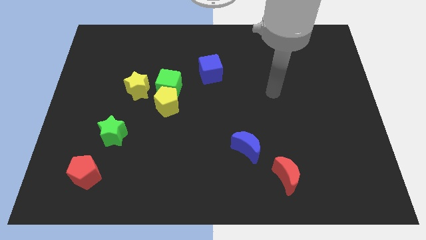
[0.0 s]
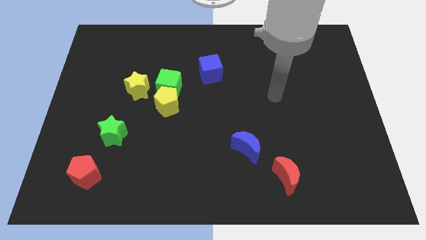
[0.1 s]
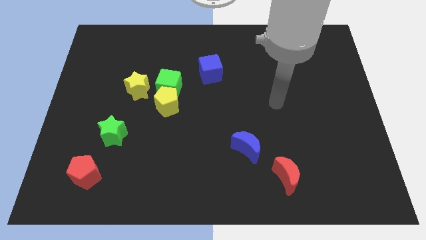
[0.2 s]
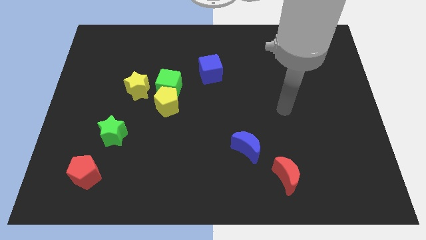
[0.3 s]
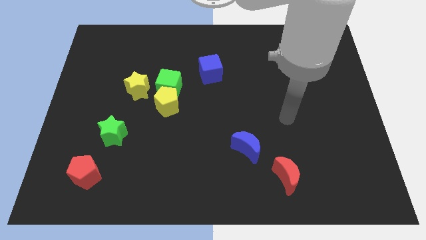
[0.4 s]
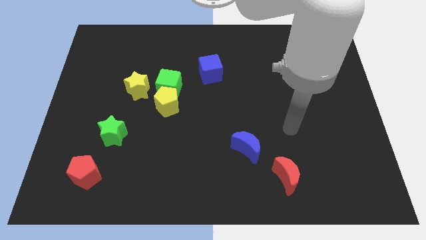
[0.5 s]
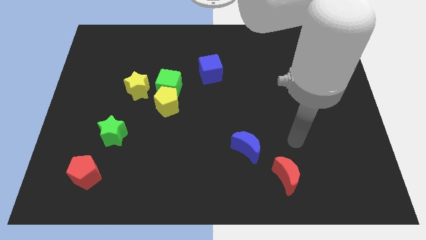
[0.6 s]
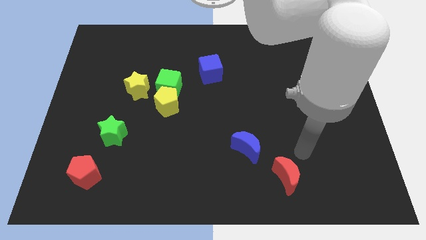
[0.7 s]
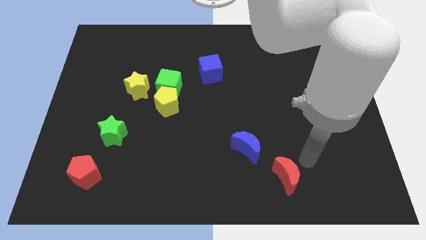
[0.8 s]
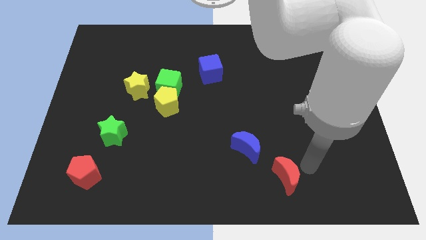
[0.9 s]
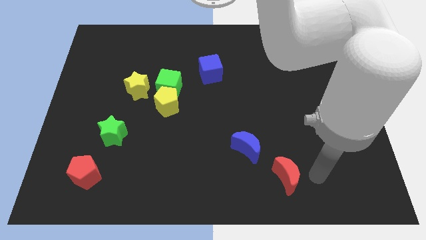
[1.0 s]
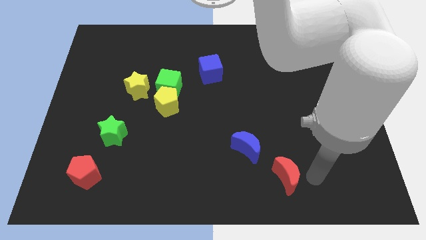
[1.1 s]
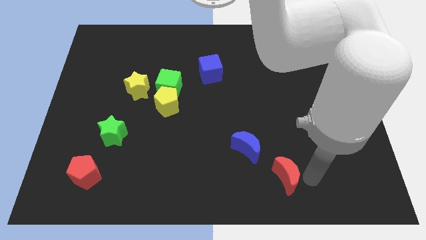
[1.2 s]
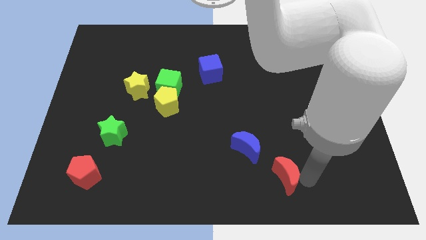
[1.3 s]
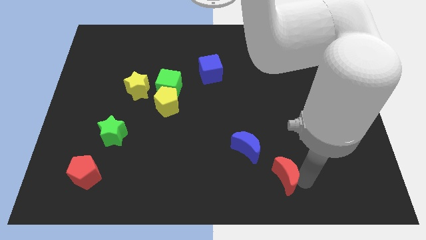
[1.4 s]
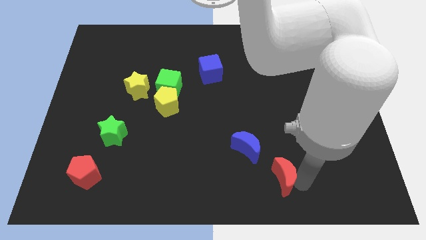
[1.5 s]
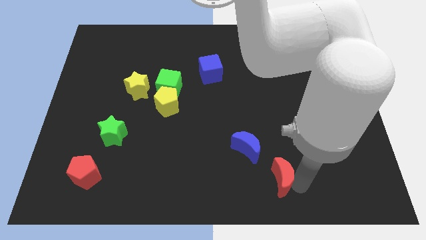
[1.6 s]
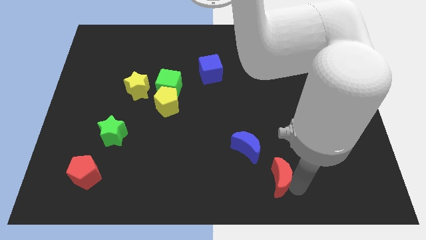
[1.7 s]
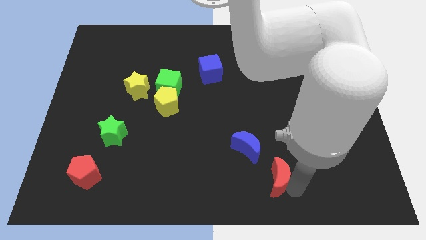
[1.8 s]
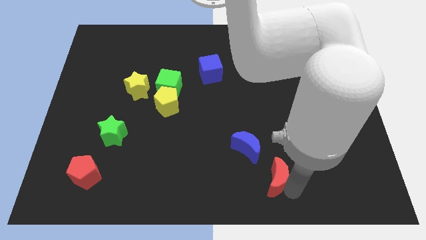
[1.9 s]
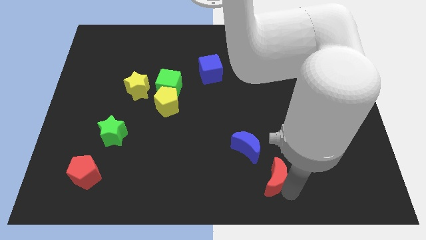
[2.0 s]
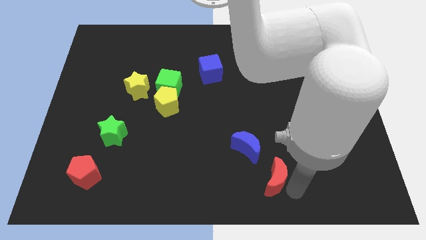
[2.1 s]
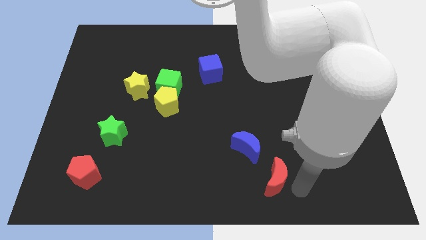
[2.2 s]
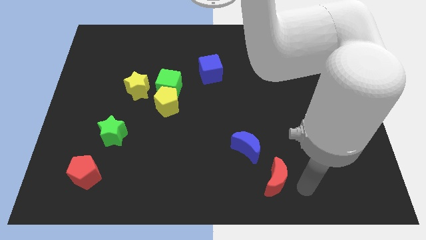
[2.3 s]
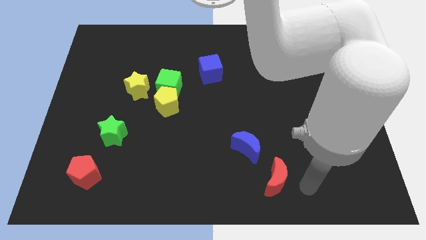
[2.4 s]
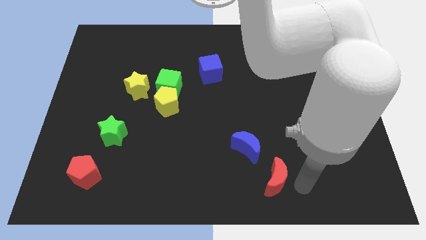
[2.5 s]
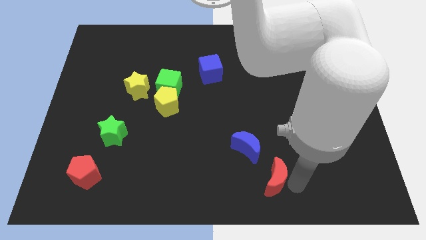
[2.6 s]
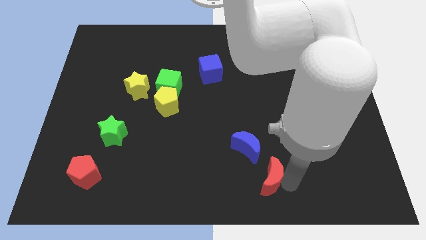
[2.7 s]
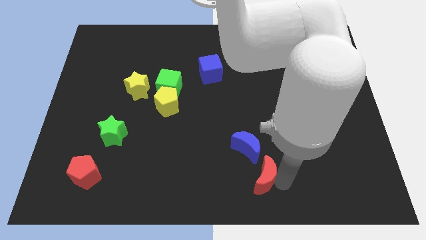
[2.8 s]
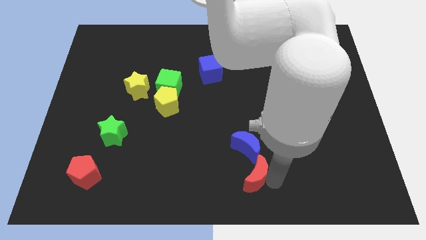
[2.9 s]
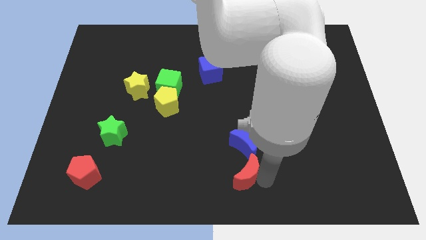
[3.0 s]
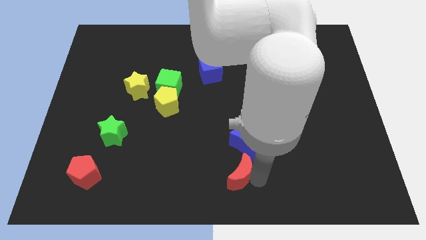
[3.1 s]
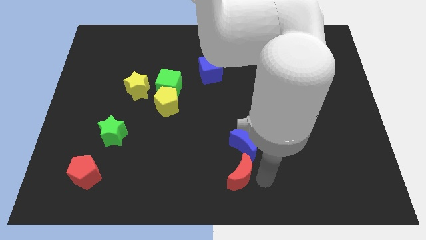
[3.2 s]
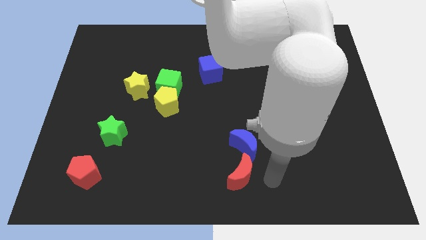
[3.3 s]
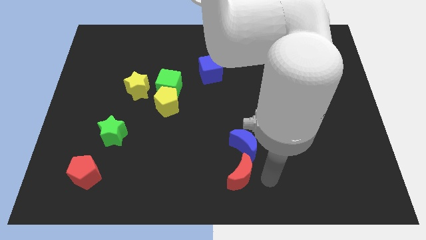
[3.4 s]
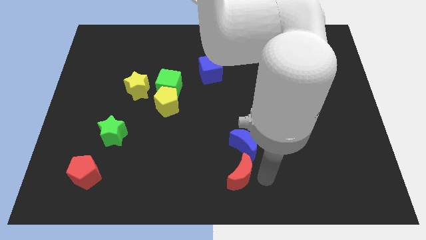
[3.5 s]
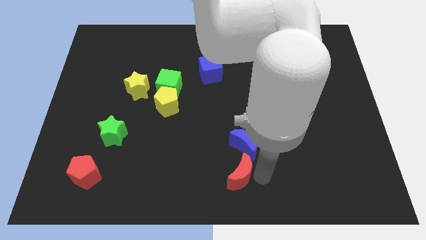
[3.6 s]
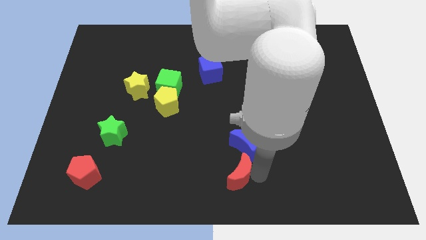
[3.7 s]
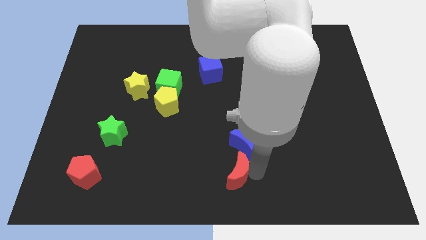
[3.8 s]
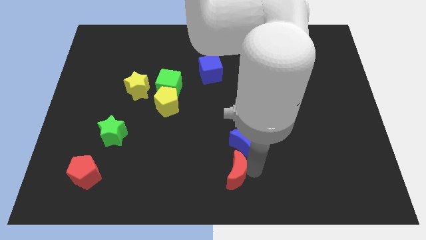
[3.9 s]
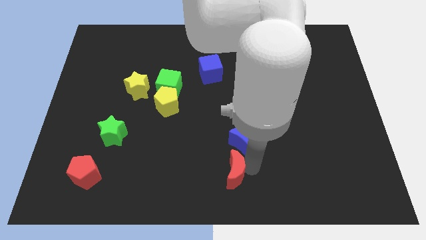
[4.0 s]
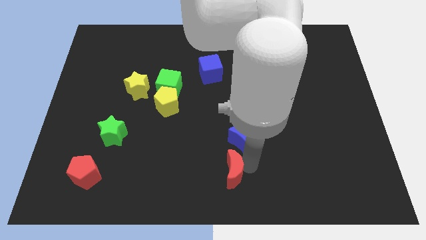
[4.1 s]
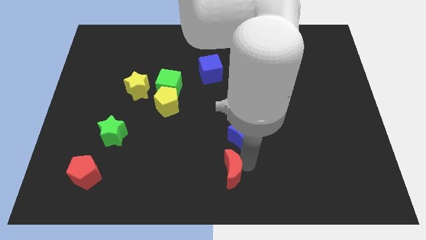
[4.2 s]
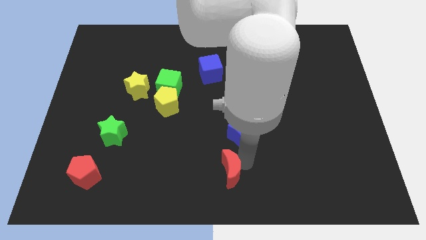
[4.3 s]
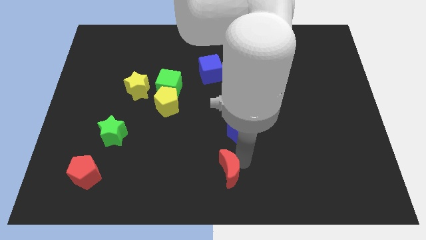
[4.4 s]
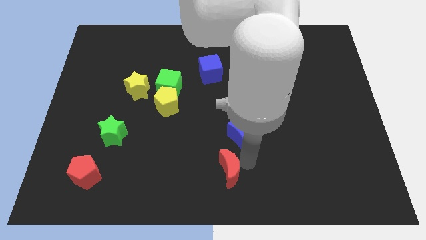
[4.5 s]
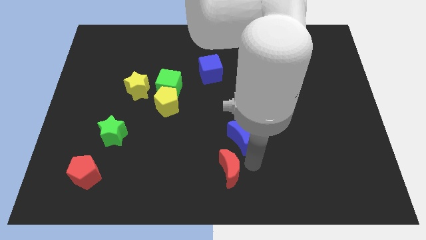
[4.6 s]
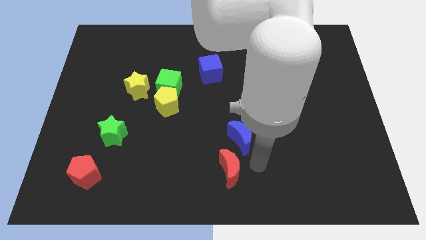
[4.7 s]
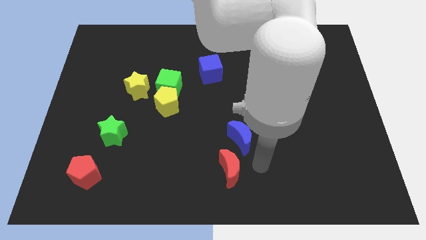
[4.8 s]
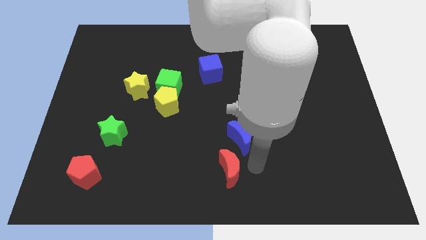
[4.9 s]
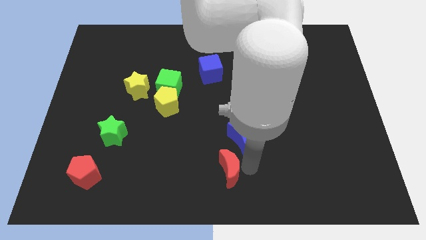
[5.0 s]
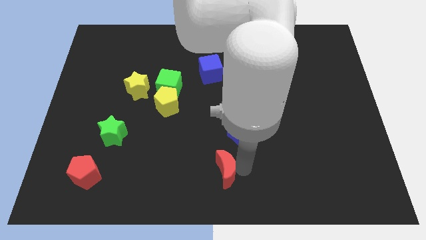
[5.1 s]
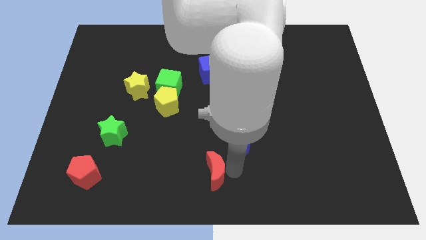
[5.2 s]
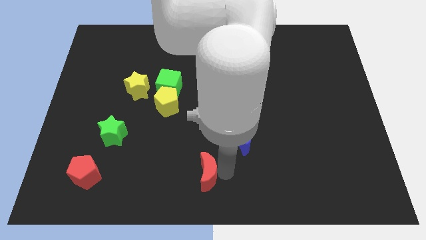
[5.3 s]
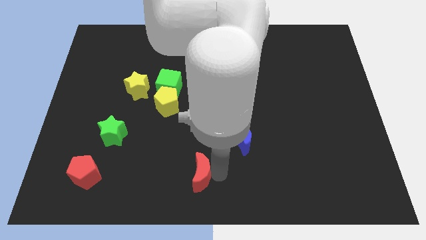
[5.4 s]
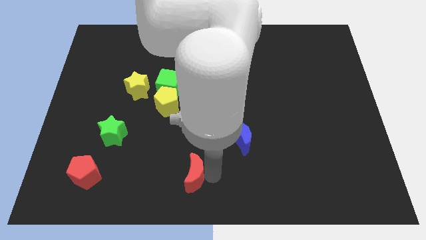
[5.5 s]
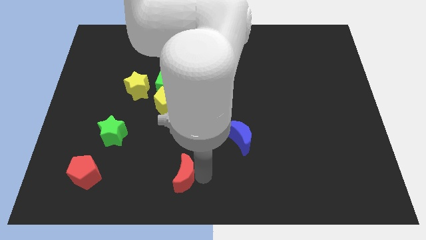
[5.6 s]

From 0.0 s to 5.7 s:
push the red moon to the left

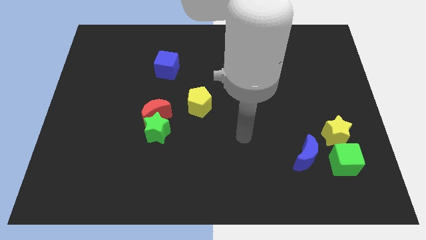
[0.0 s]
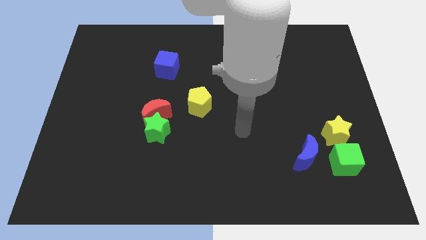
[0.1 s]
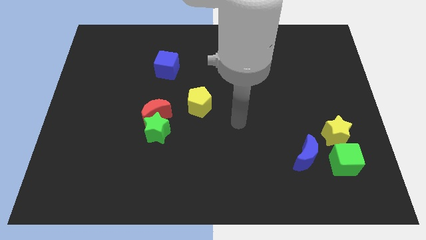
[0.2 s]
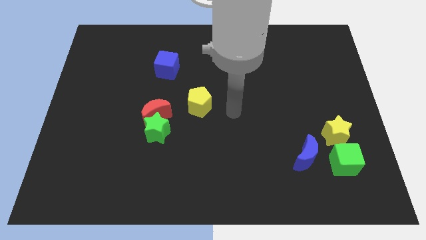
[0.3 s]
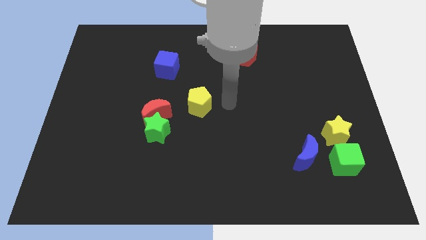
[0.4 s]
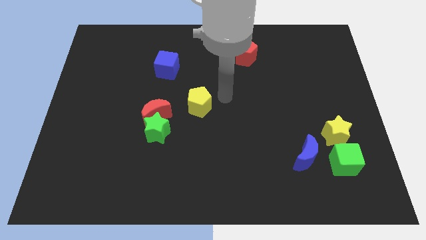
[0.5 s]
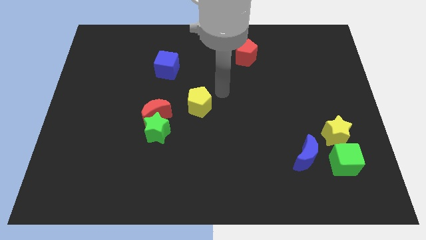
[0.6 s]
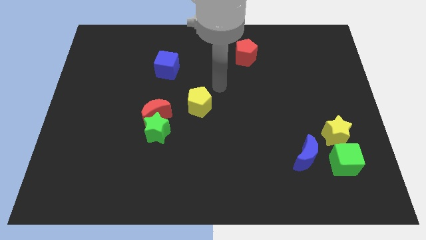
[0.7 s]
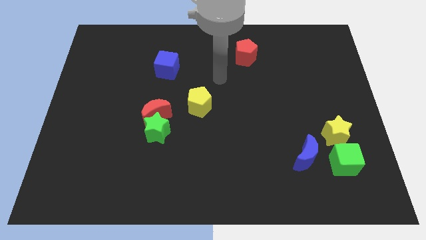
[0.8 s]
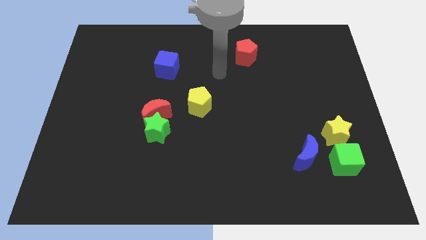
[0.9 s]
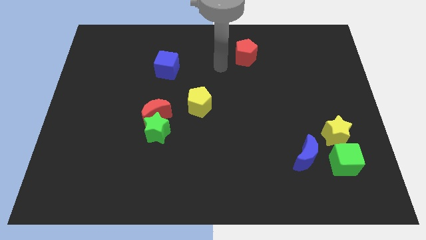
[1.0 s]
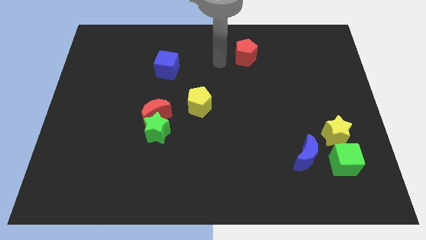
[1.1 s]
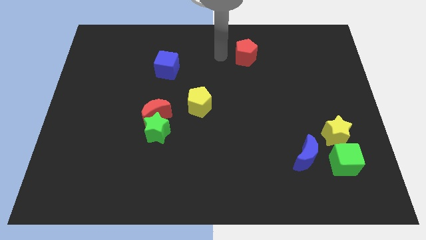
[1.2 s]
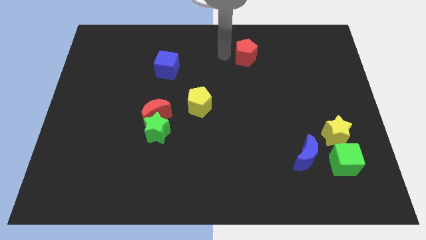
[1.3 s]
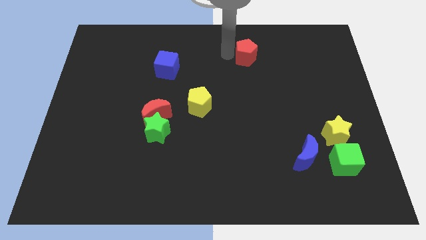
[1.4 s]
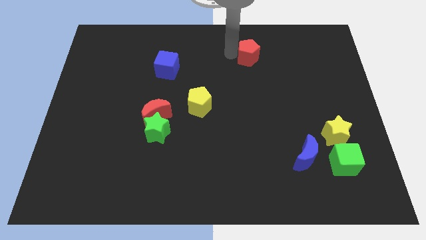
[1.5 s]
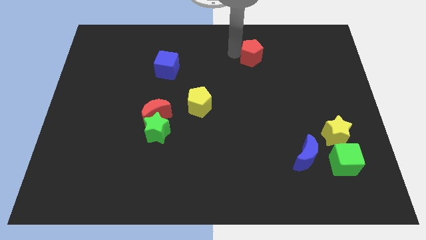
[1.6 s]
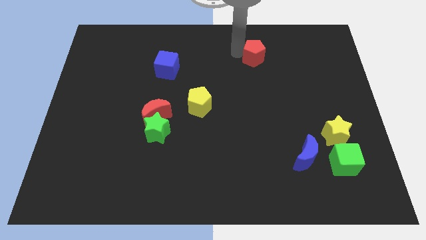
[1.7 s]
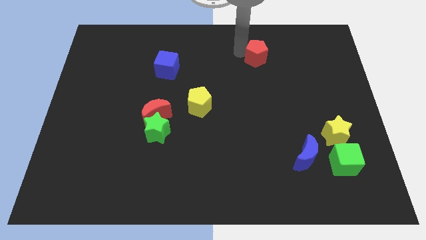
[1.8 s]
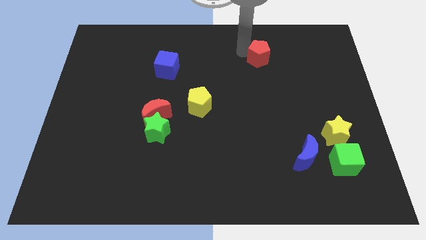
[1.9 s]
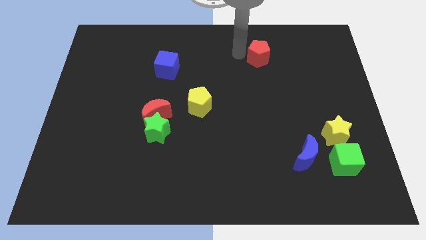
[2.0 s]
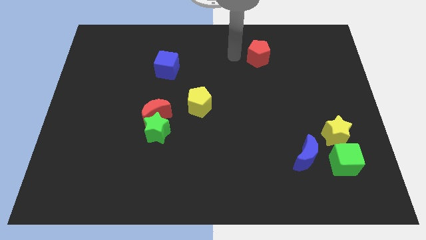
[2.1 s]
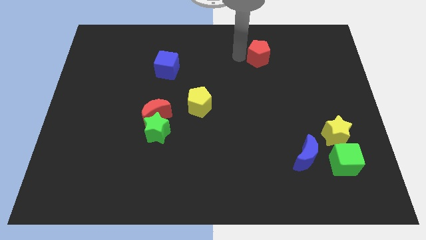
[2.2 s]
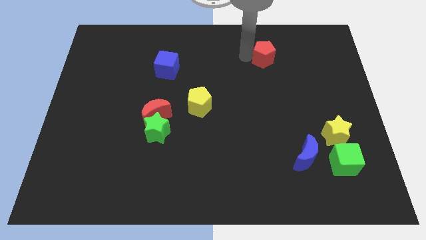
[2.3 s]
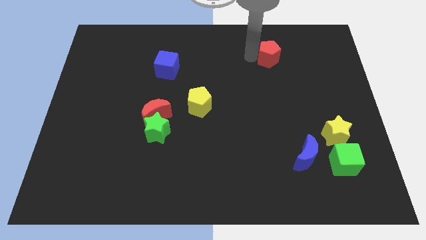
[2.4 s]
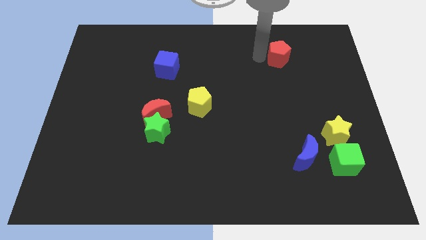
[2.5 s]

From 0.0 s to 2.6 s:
slide the red pentagon to the right a little
